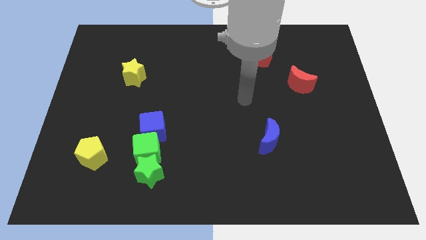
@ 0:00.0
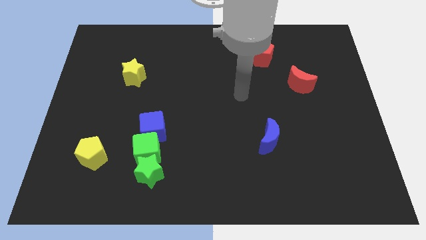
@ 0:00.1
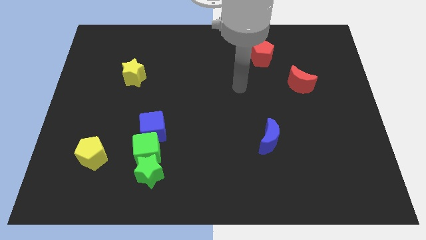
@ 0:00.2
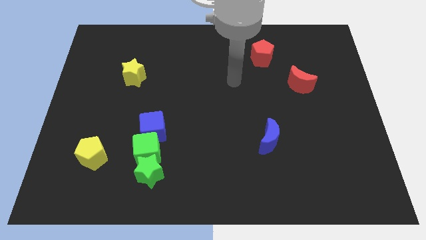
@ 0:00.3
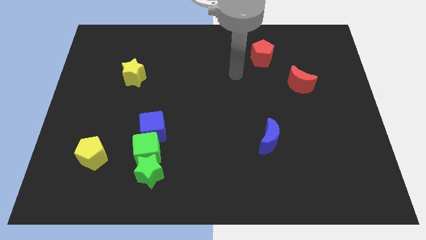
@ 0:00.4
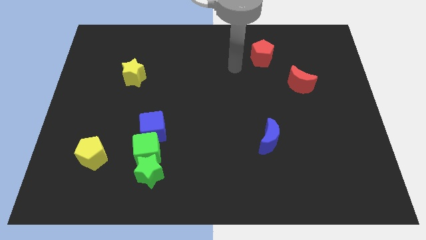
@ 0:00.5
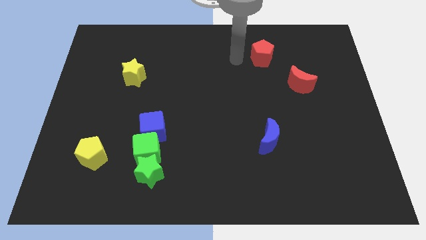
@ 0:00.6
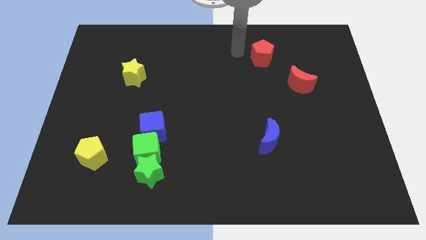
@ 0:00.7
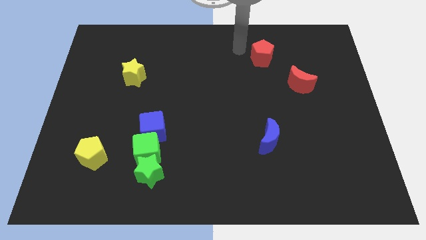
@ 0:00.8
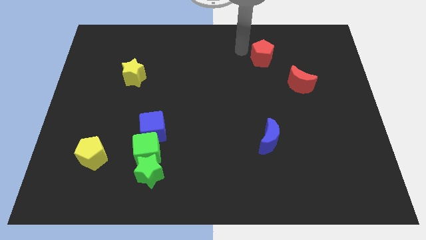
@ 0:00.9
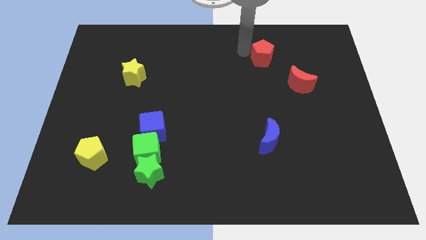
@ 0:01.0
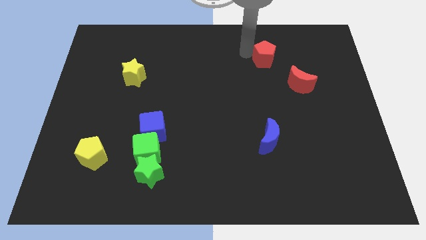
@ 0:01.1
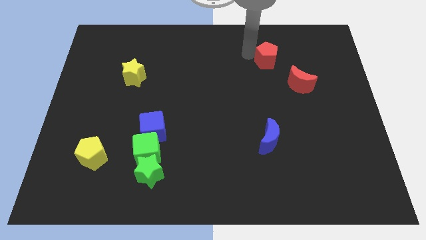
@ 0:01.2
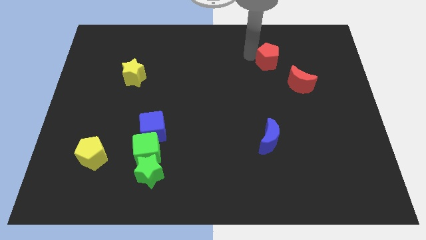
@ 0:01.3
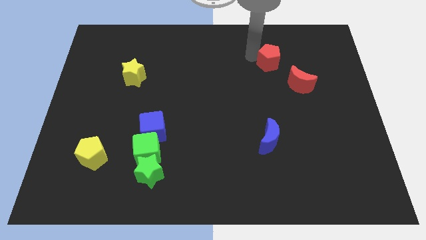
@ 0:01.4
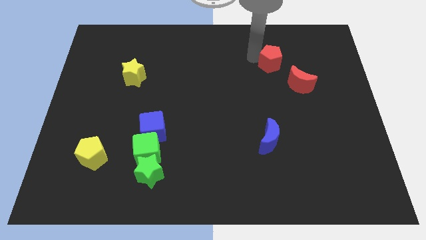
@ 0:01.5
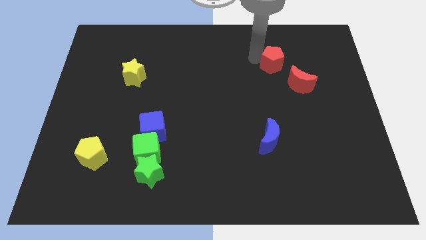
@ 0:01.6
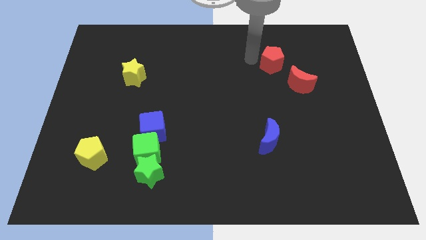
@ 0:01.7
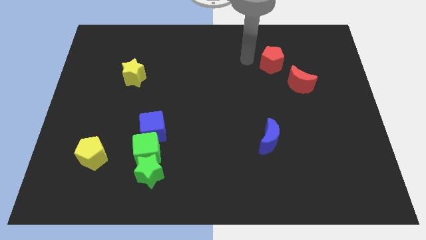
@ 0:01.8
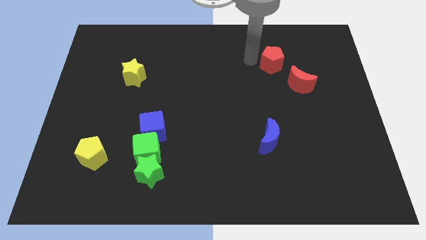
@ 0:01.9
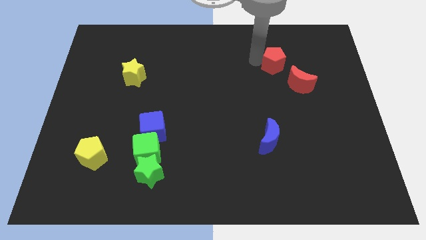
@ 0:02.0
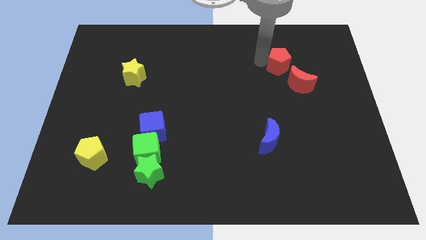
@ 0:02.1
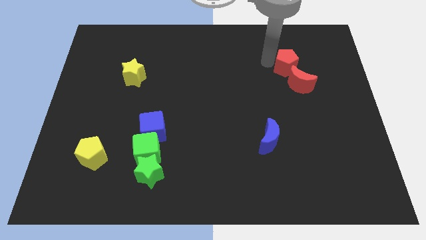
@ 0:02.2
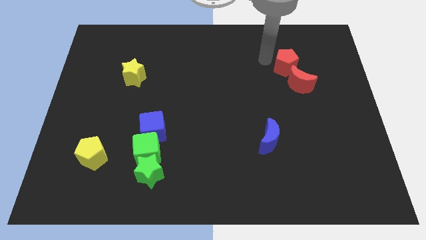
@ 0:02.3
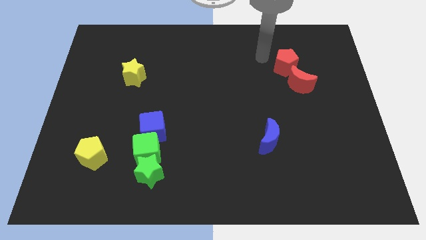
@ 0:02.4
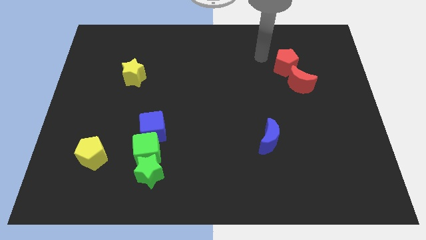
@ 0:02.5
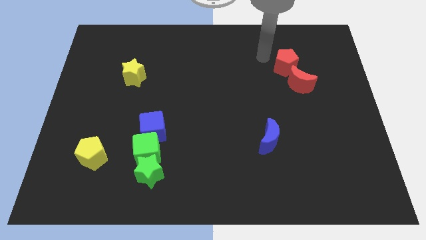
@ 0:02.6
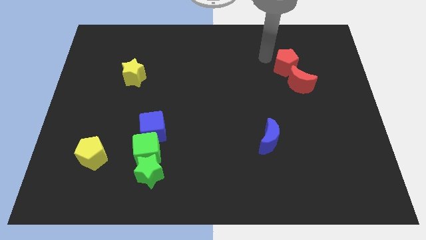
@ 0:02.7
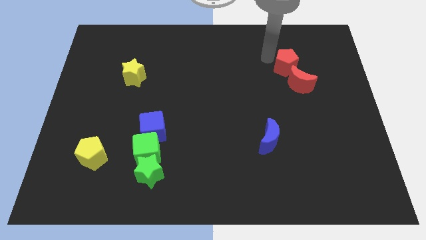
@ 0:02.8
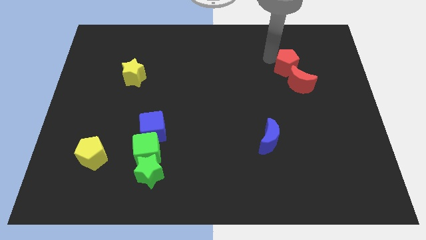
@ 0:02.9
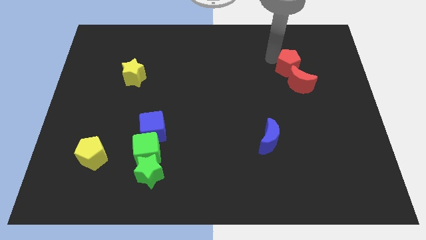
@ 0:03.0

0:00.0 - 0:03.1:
push the red pentagon slightly down and then right

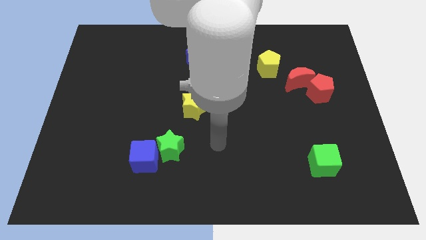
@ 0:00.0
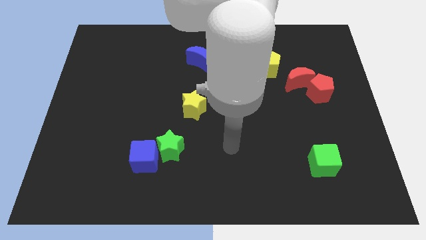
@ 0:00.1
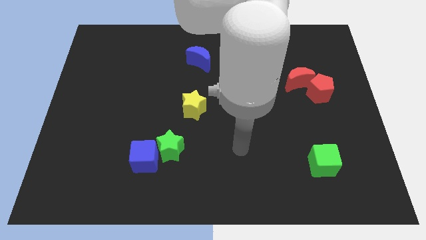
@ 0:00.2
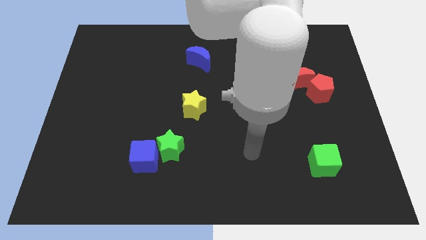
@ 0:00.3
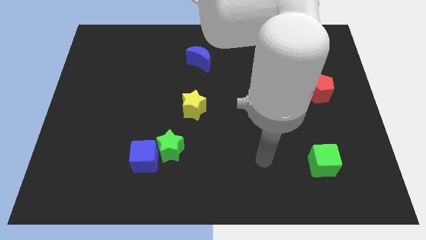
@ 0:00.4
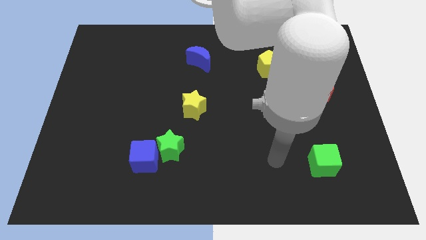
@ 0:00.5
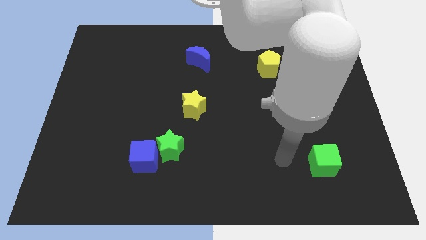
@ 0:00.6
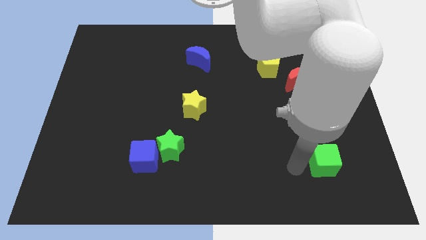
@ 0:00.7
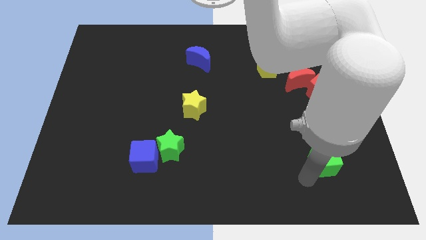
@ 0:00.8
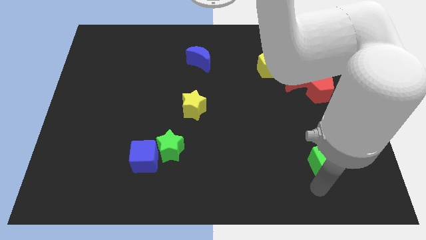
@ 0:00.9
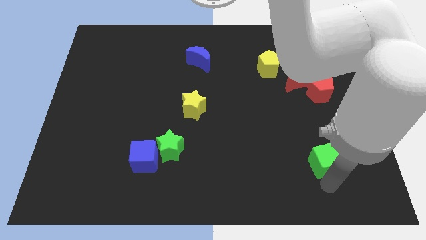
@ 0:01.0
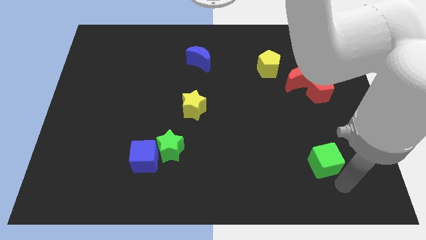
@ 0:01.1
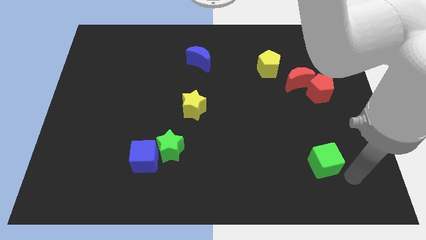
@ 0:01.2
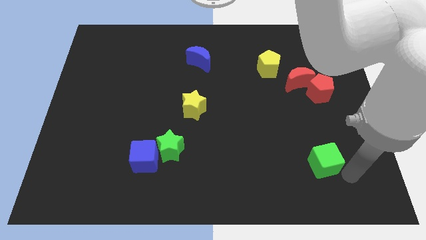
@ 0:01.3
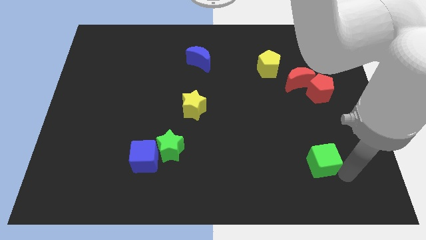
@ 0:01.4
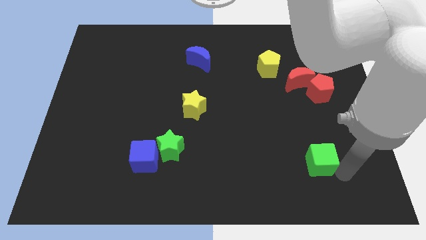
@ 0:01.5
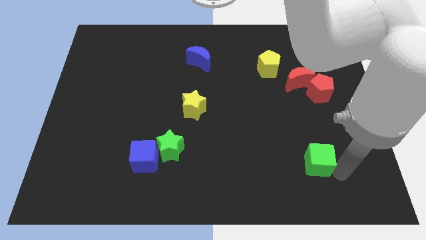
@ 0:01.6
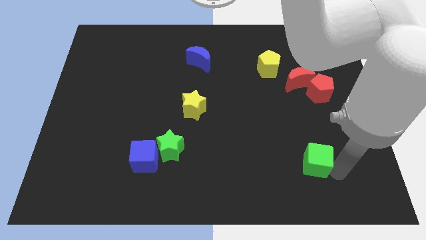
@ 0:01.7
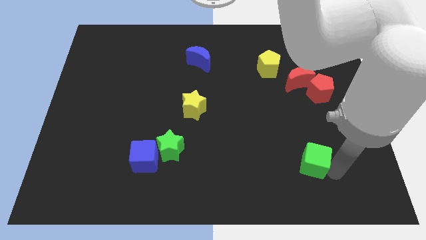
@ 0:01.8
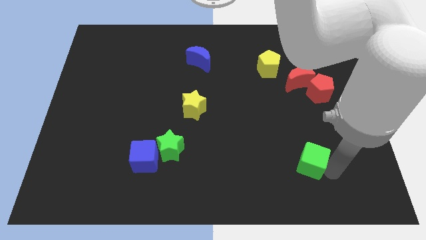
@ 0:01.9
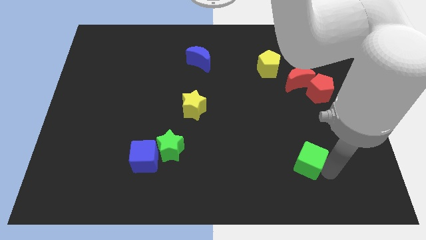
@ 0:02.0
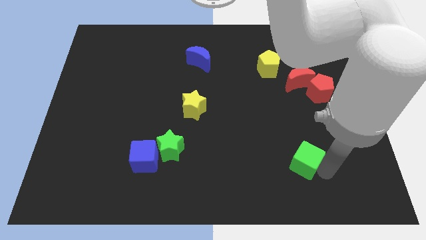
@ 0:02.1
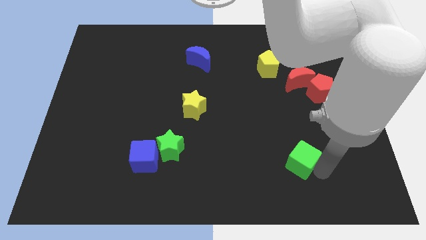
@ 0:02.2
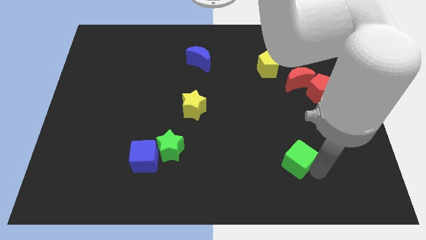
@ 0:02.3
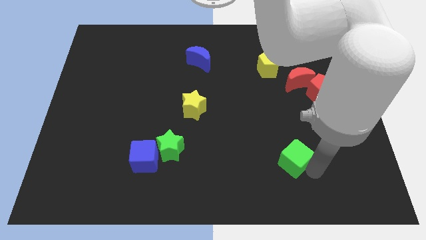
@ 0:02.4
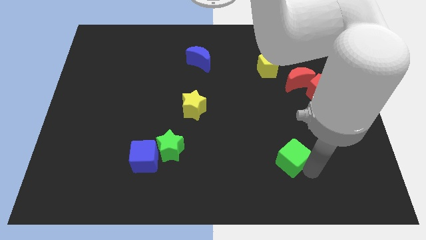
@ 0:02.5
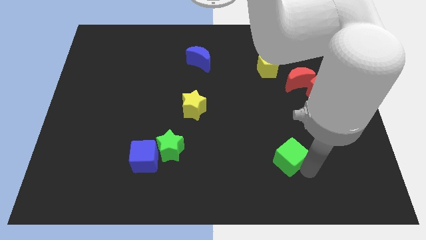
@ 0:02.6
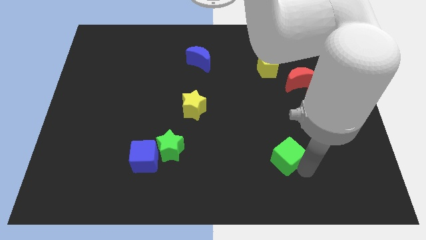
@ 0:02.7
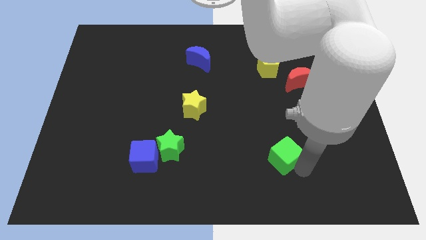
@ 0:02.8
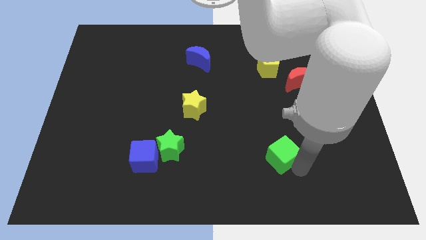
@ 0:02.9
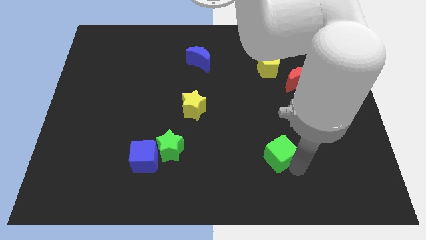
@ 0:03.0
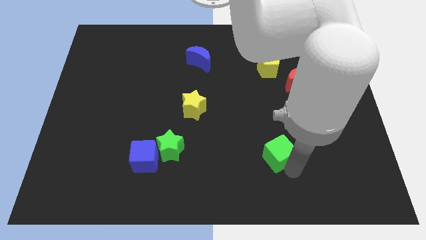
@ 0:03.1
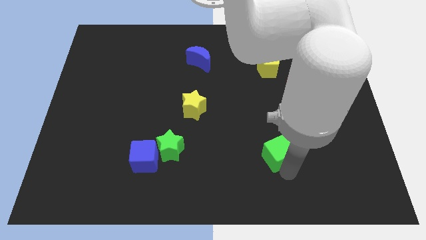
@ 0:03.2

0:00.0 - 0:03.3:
move the green cube slightly upwards and to the left

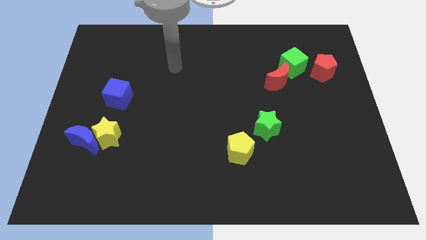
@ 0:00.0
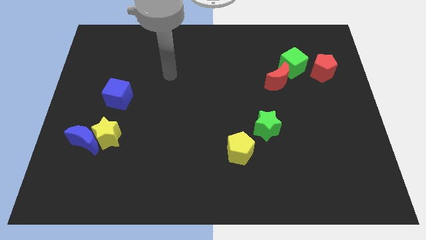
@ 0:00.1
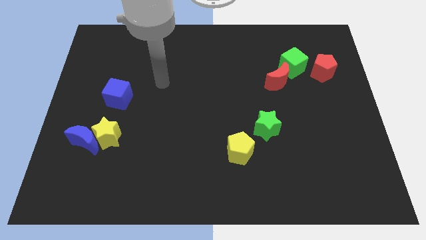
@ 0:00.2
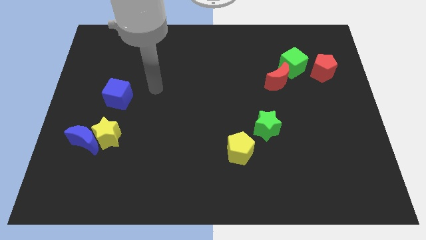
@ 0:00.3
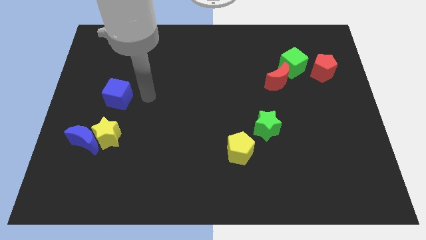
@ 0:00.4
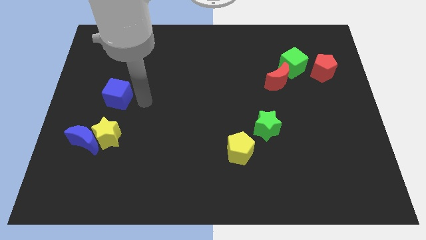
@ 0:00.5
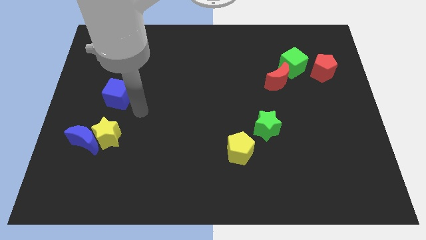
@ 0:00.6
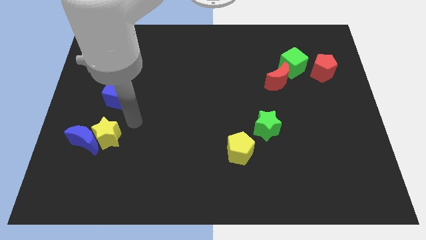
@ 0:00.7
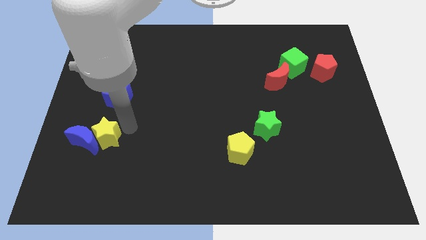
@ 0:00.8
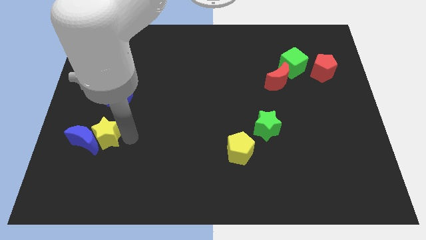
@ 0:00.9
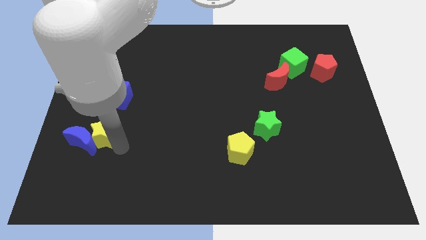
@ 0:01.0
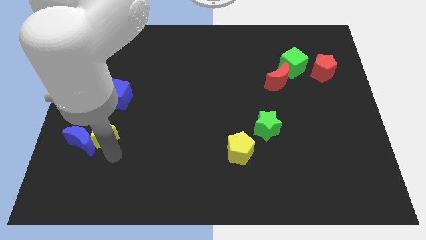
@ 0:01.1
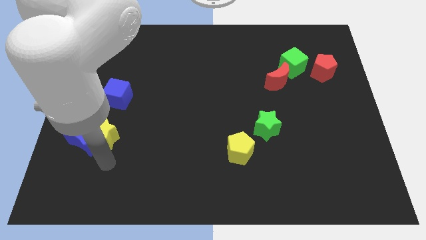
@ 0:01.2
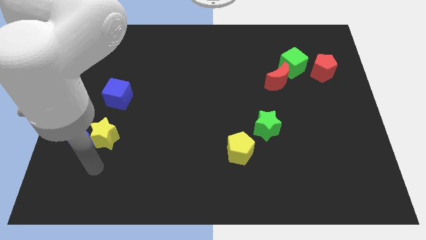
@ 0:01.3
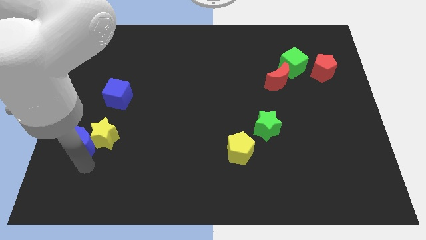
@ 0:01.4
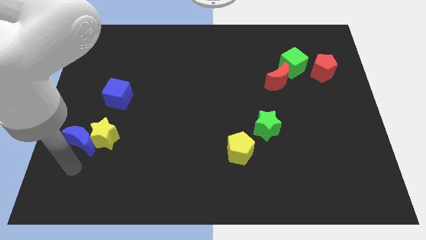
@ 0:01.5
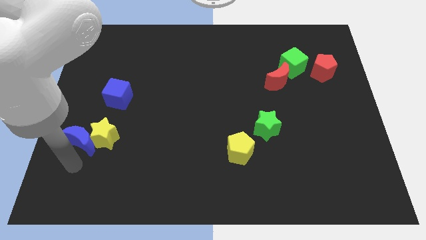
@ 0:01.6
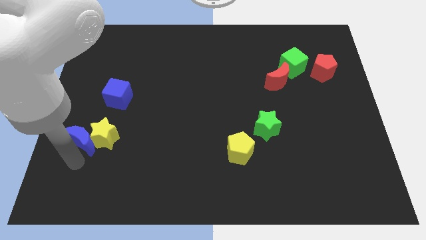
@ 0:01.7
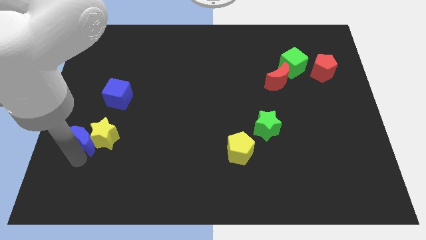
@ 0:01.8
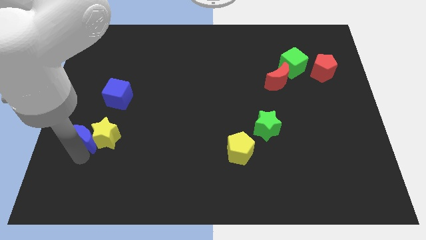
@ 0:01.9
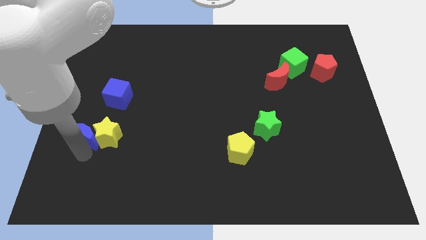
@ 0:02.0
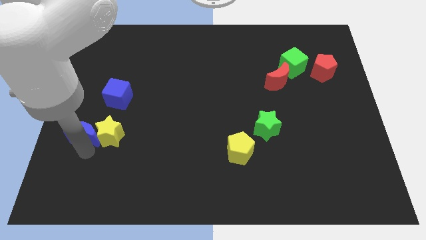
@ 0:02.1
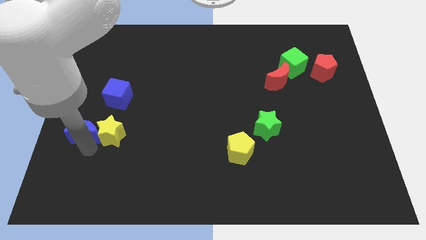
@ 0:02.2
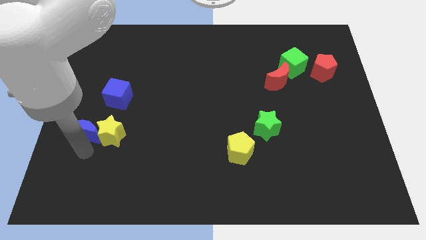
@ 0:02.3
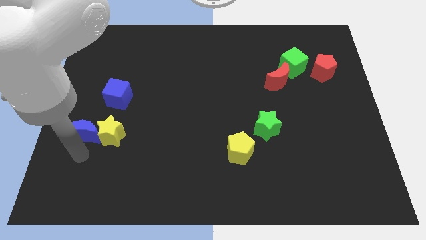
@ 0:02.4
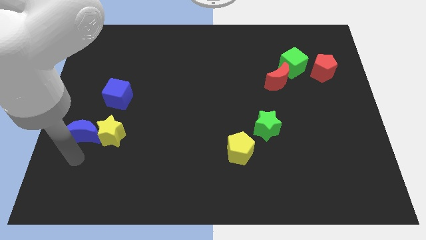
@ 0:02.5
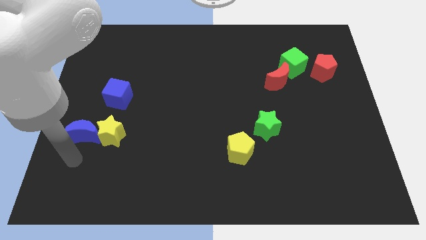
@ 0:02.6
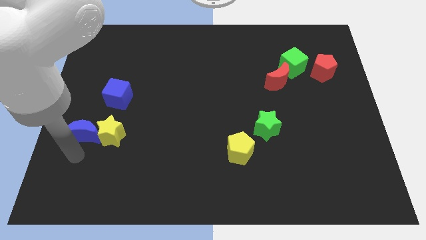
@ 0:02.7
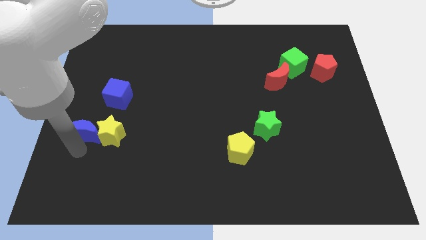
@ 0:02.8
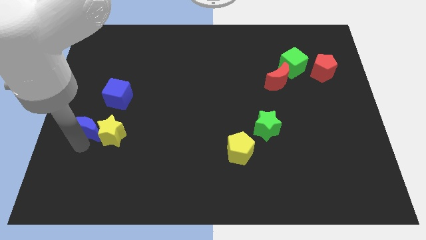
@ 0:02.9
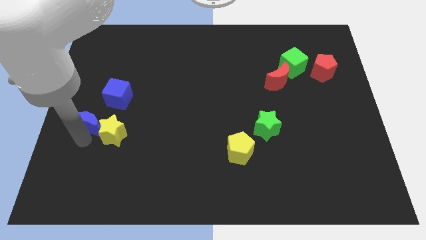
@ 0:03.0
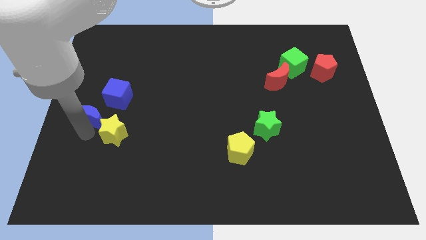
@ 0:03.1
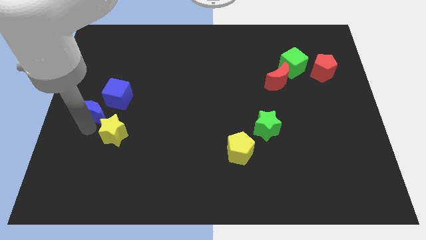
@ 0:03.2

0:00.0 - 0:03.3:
slide the blue moon upwards somewhat
